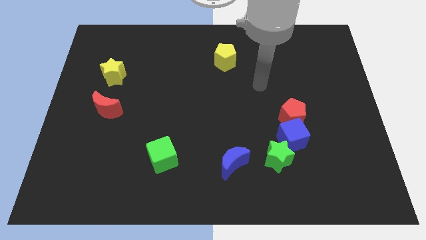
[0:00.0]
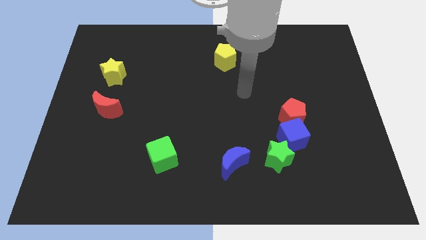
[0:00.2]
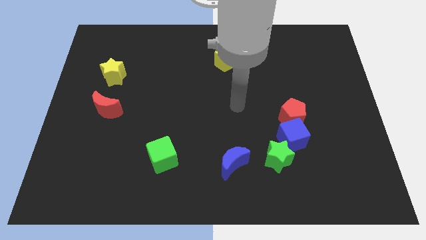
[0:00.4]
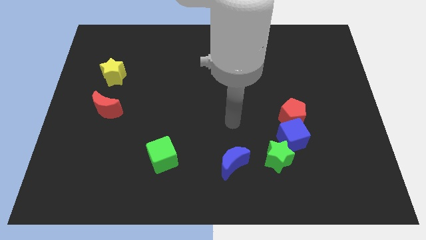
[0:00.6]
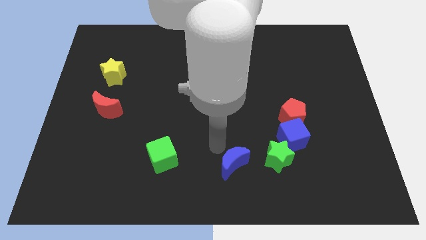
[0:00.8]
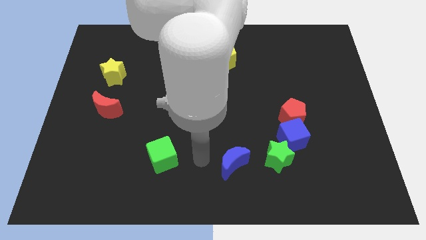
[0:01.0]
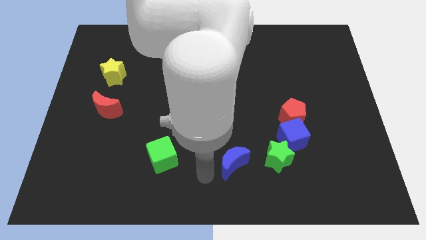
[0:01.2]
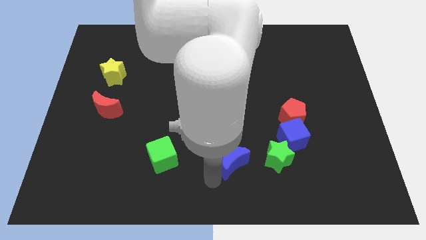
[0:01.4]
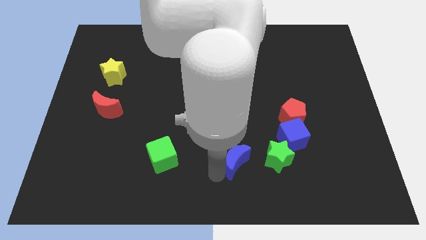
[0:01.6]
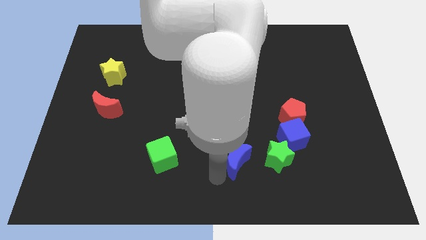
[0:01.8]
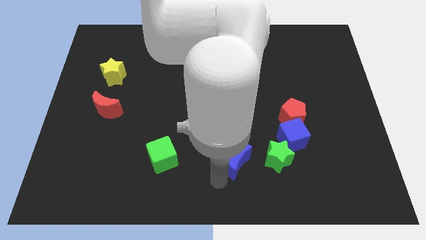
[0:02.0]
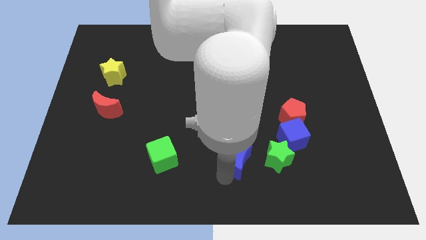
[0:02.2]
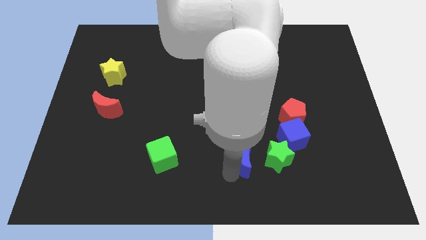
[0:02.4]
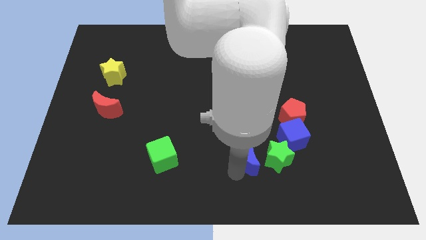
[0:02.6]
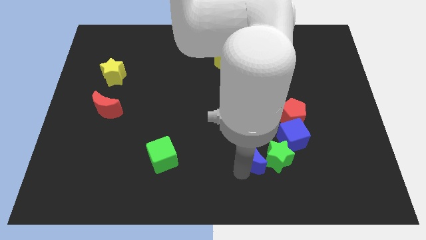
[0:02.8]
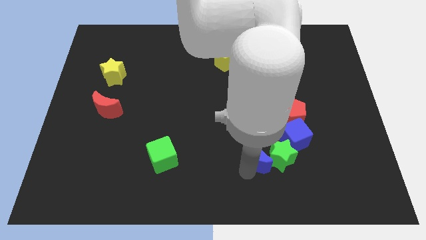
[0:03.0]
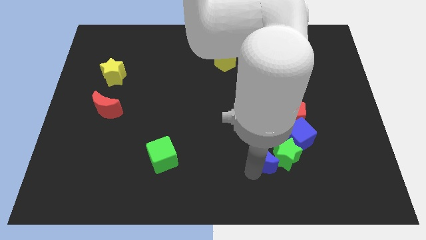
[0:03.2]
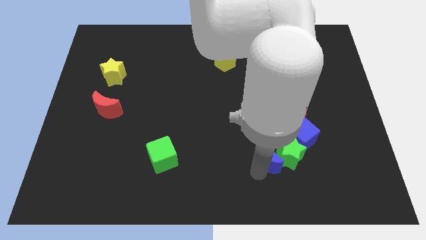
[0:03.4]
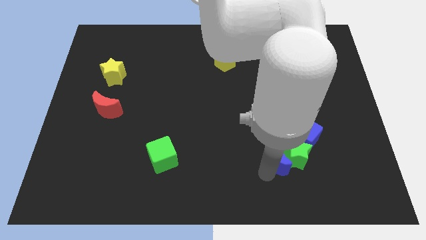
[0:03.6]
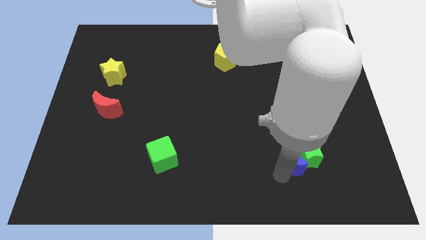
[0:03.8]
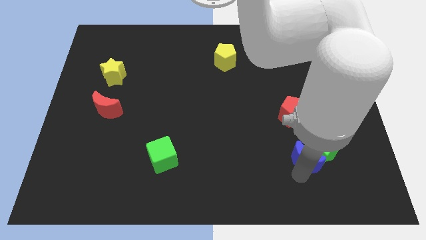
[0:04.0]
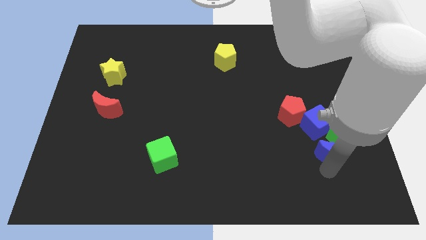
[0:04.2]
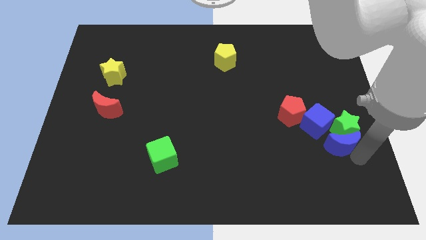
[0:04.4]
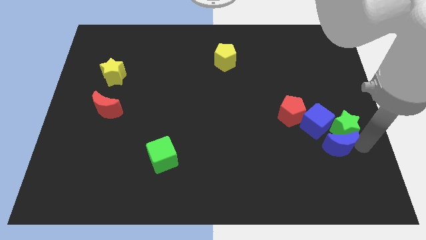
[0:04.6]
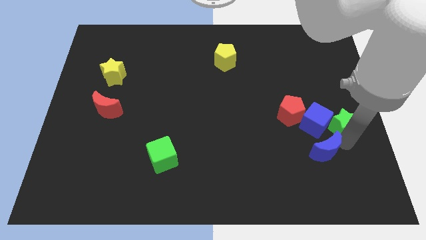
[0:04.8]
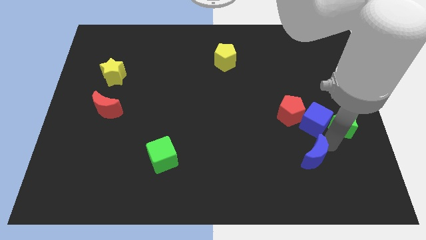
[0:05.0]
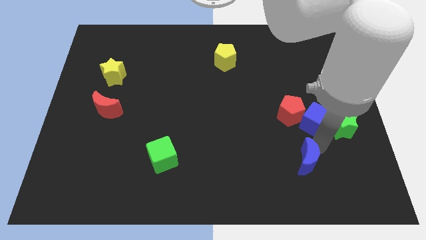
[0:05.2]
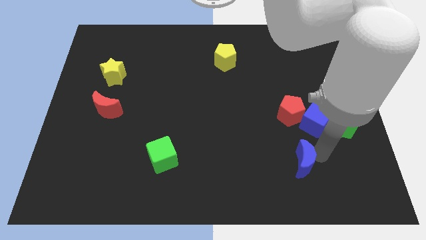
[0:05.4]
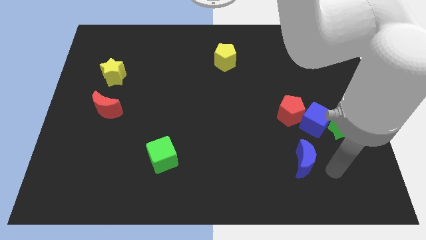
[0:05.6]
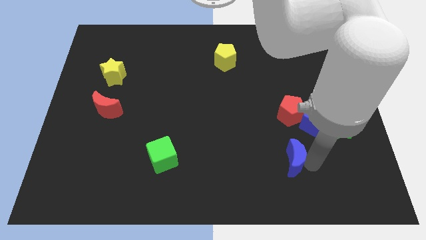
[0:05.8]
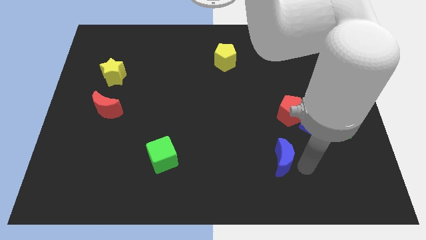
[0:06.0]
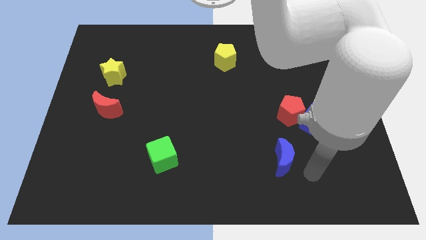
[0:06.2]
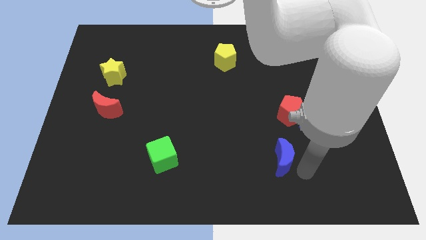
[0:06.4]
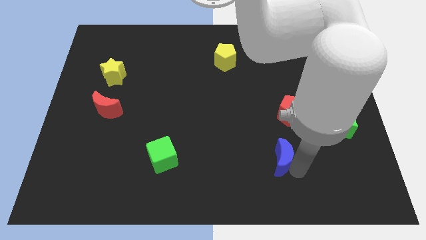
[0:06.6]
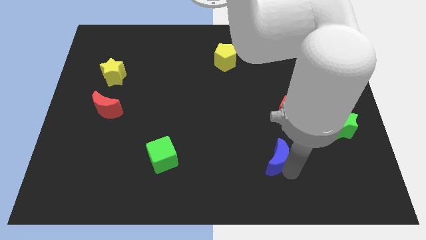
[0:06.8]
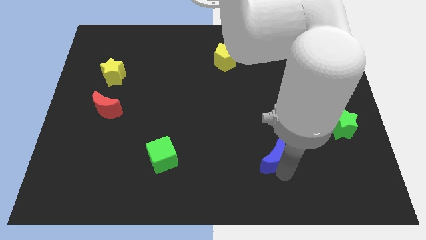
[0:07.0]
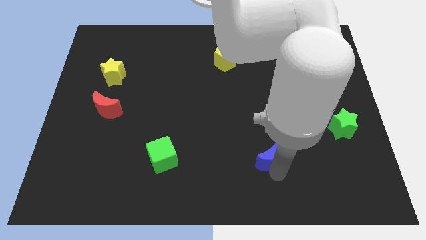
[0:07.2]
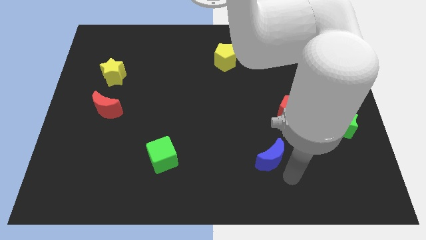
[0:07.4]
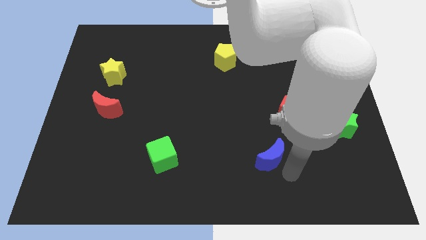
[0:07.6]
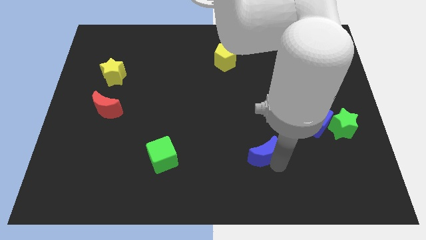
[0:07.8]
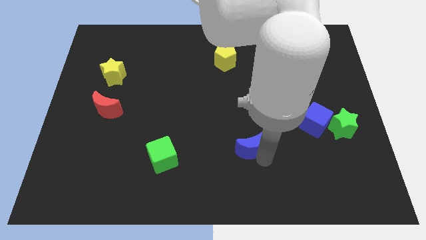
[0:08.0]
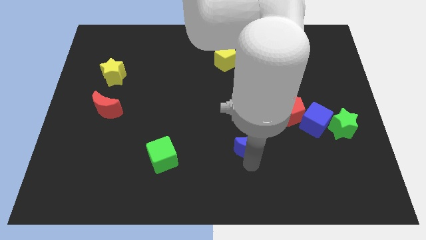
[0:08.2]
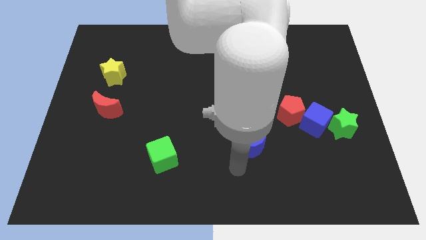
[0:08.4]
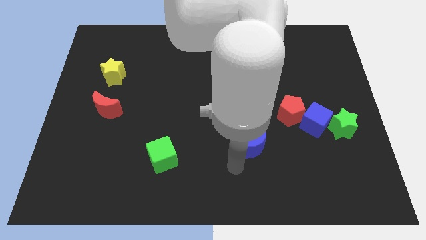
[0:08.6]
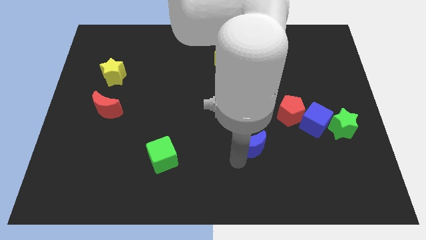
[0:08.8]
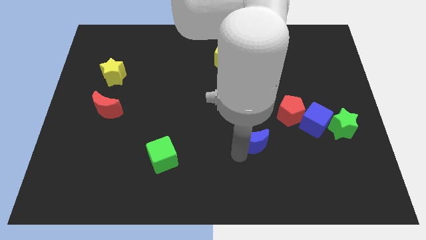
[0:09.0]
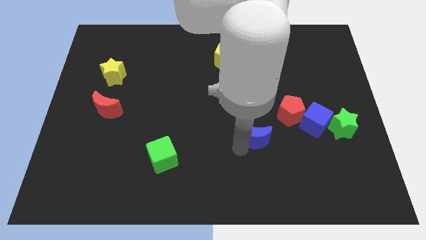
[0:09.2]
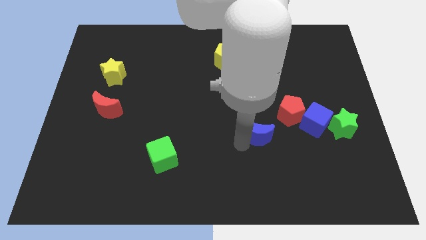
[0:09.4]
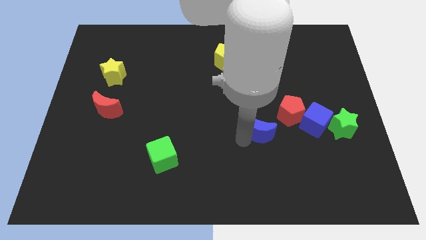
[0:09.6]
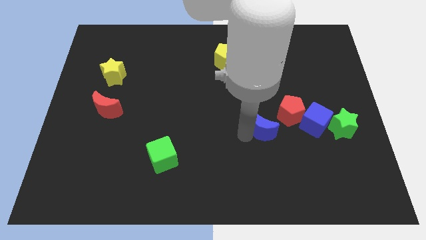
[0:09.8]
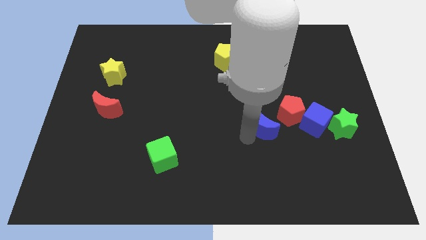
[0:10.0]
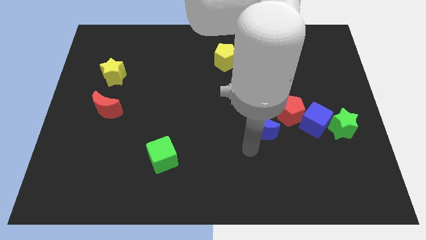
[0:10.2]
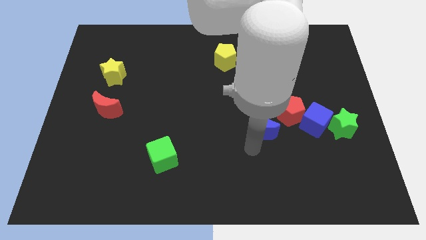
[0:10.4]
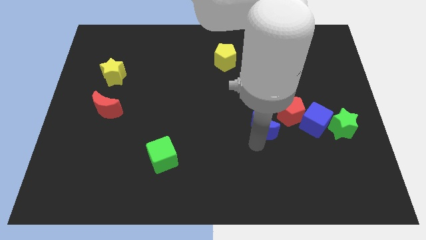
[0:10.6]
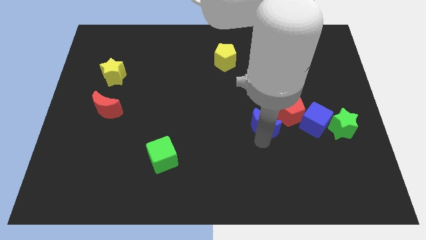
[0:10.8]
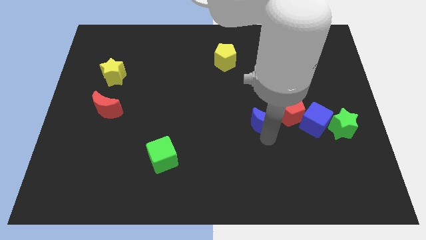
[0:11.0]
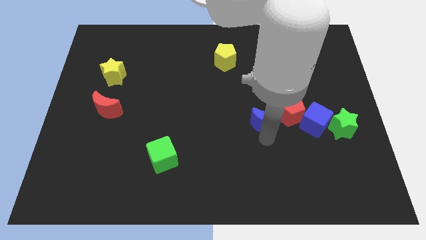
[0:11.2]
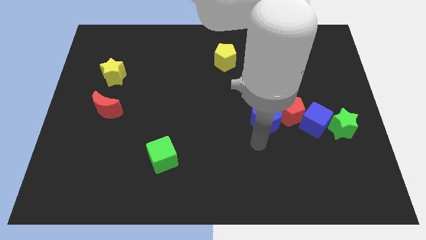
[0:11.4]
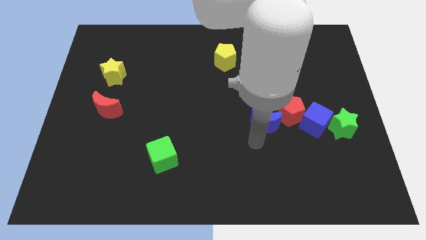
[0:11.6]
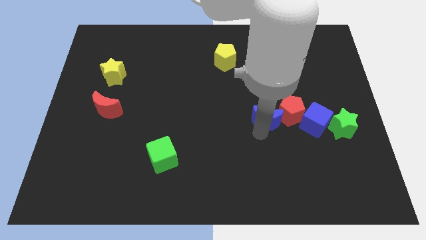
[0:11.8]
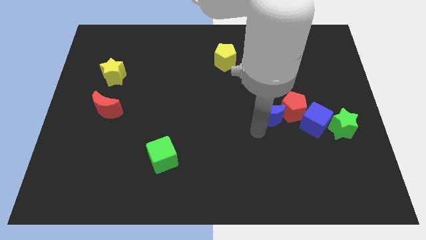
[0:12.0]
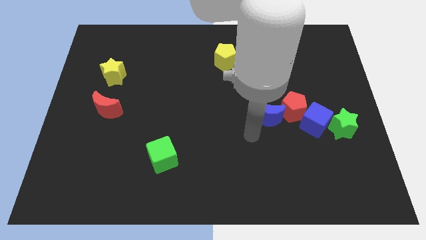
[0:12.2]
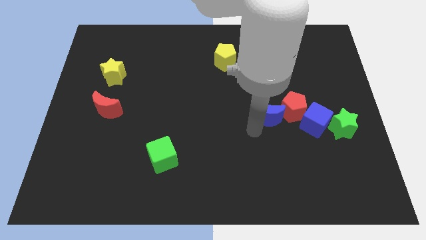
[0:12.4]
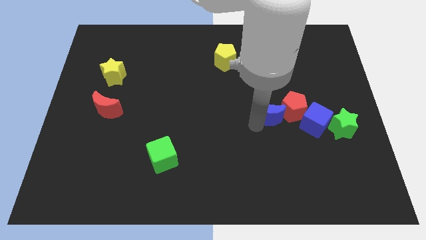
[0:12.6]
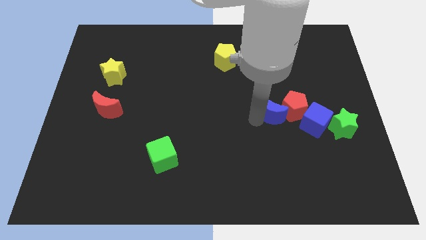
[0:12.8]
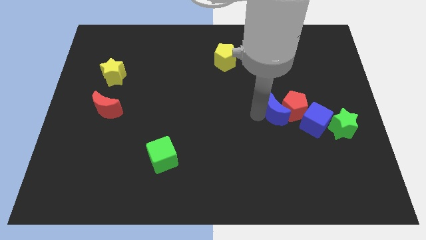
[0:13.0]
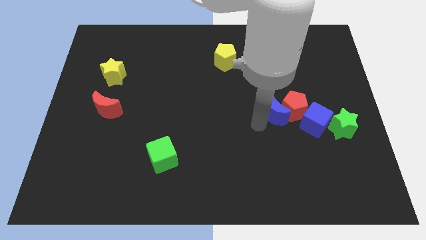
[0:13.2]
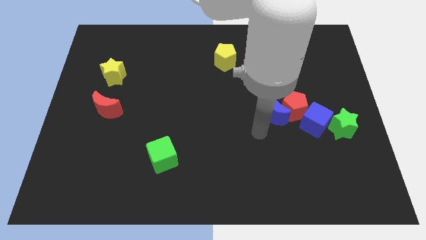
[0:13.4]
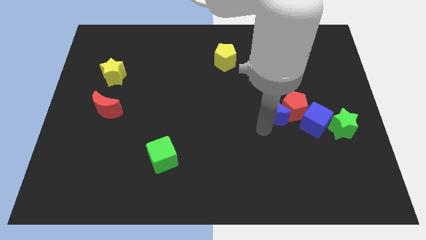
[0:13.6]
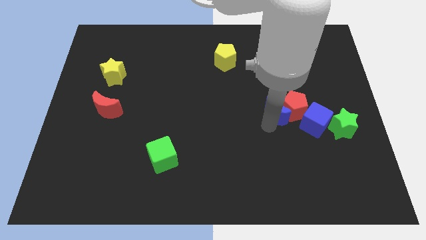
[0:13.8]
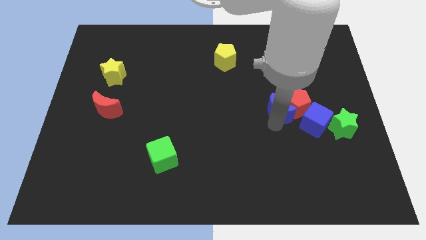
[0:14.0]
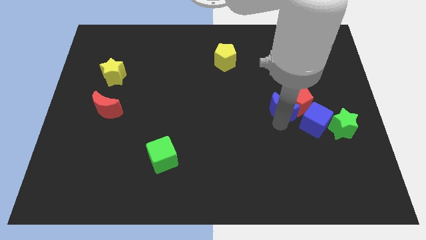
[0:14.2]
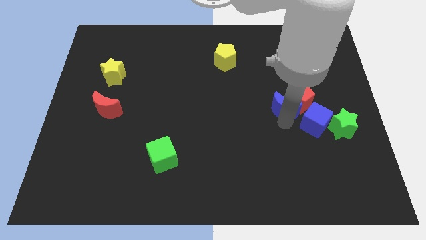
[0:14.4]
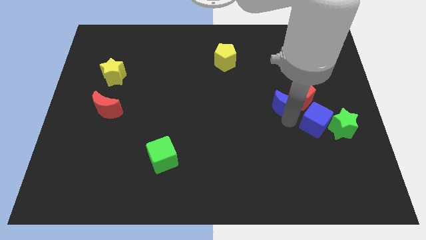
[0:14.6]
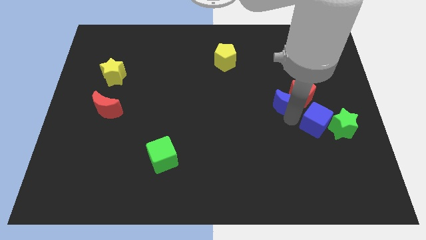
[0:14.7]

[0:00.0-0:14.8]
slide the blue moon up and right

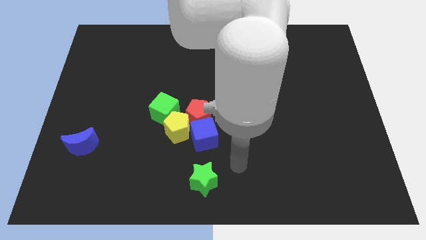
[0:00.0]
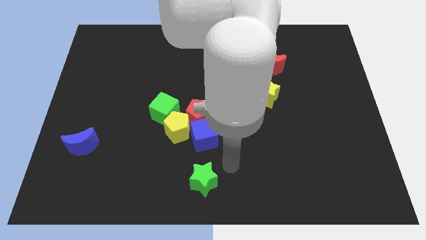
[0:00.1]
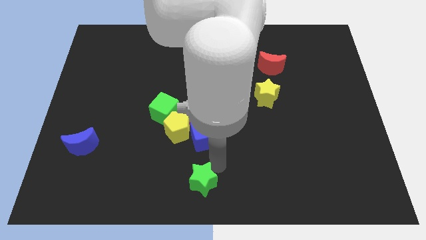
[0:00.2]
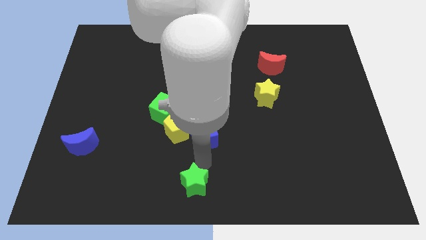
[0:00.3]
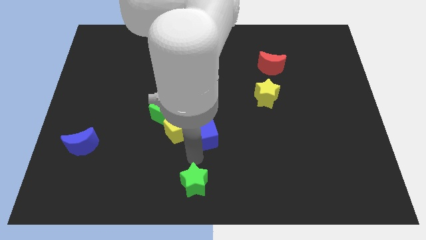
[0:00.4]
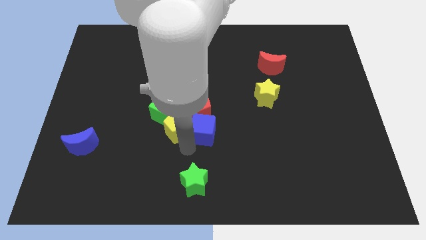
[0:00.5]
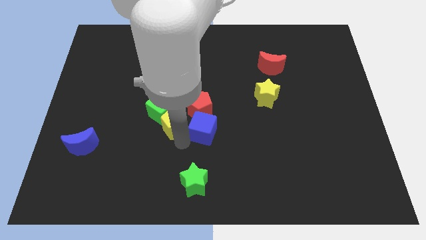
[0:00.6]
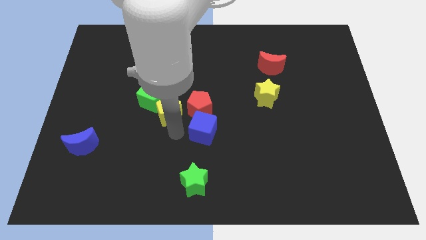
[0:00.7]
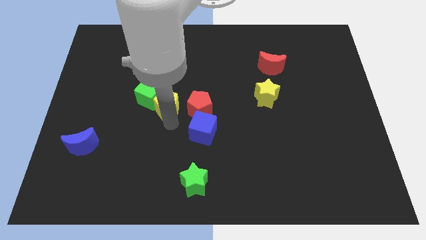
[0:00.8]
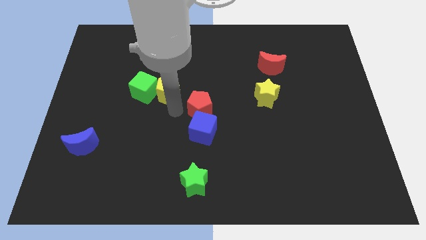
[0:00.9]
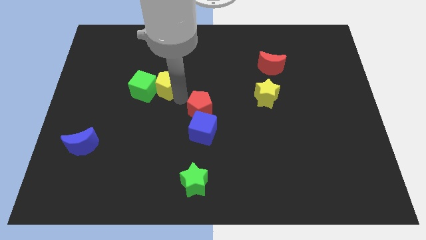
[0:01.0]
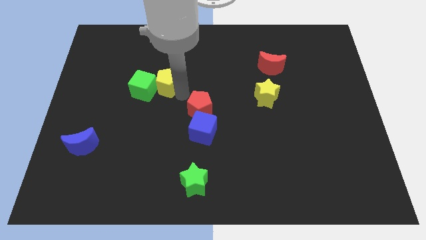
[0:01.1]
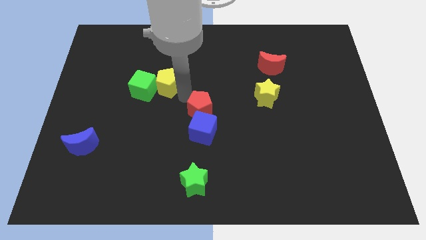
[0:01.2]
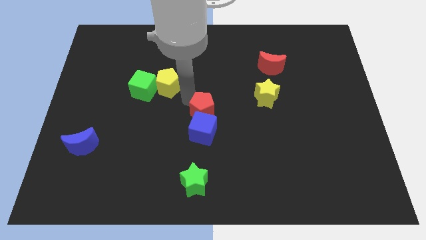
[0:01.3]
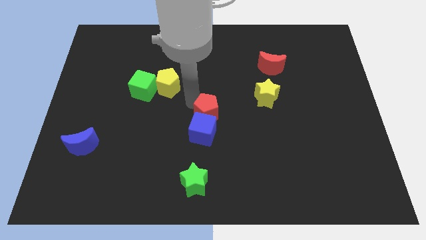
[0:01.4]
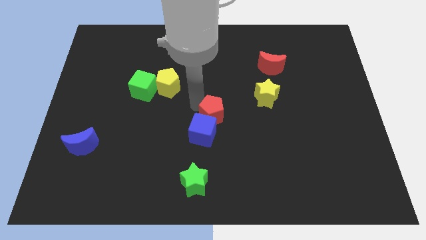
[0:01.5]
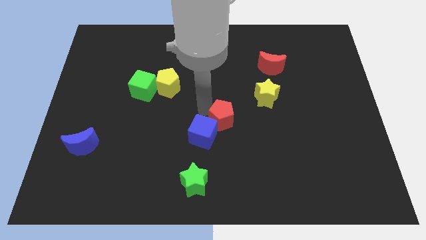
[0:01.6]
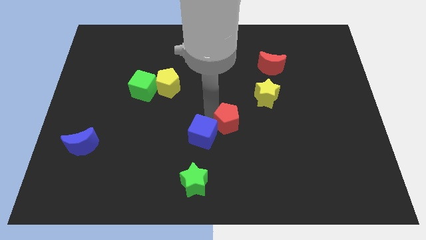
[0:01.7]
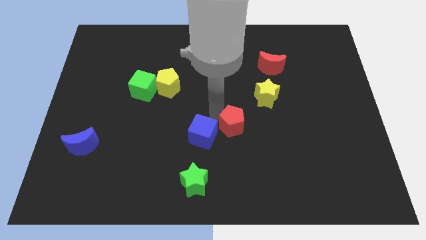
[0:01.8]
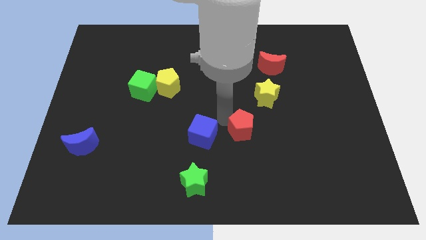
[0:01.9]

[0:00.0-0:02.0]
slide the red pentagon down and right slightly
